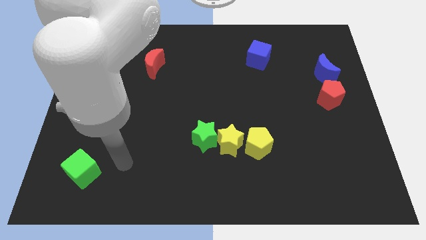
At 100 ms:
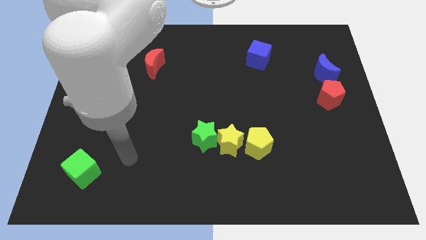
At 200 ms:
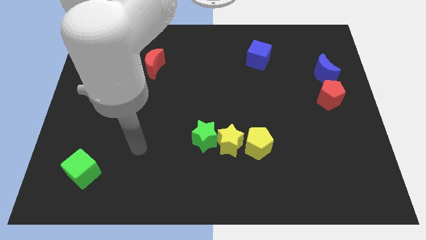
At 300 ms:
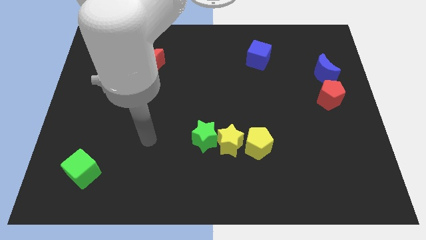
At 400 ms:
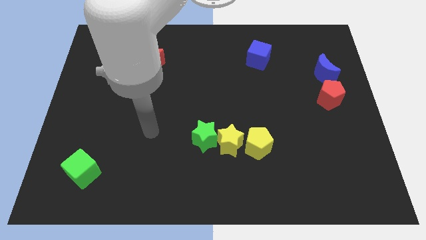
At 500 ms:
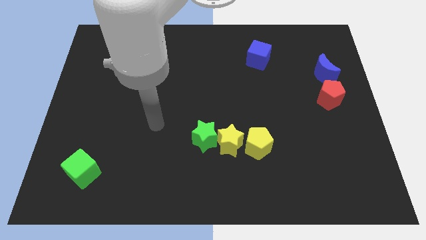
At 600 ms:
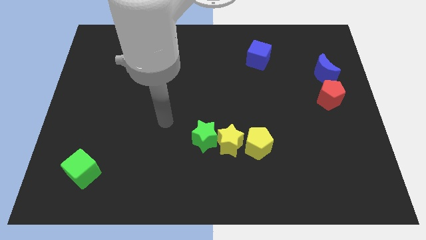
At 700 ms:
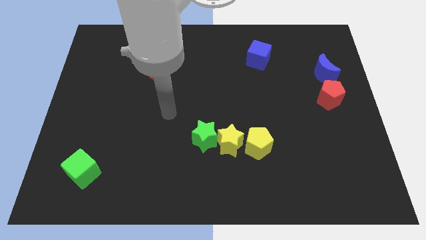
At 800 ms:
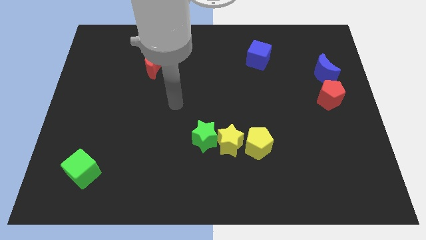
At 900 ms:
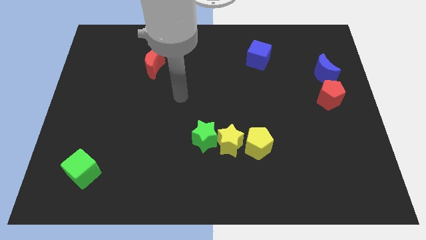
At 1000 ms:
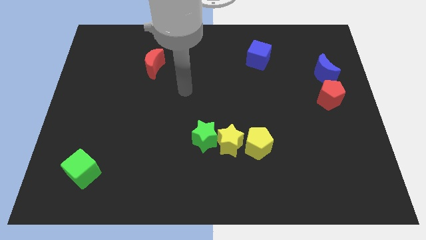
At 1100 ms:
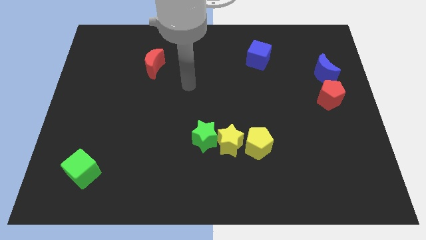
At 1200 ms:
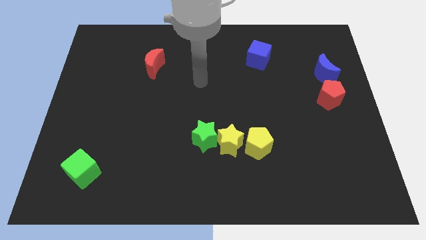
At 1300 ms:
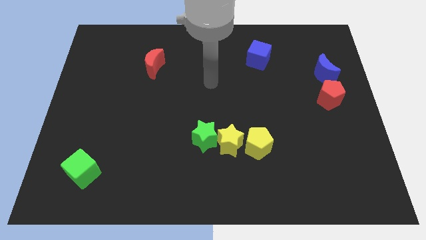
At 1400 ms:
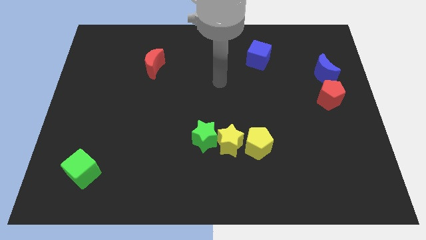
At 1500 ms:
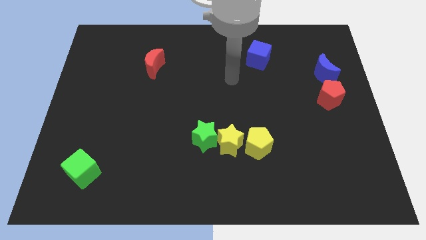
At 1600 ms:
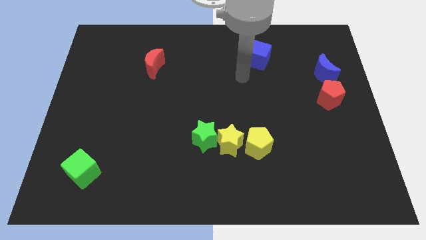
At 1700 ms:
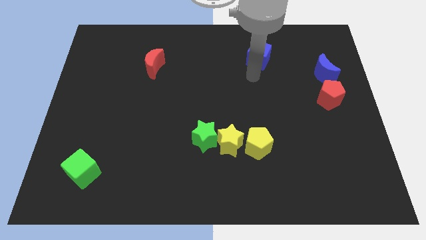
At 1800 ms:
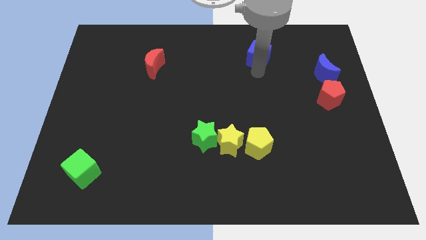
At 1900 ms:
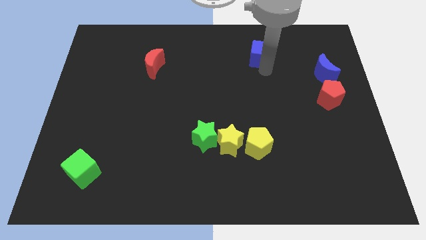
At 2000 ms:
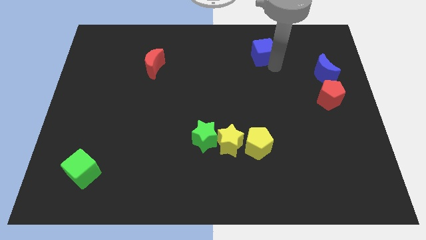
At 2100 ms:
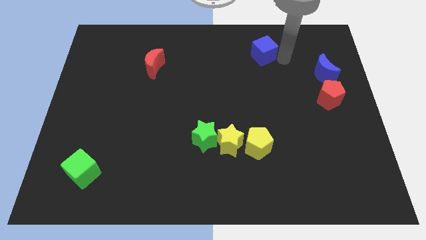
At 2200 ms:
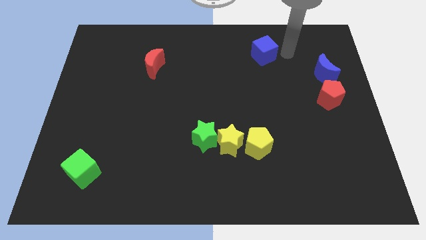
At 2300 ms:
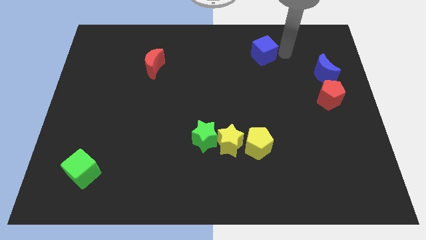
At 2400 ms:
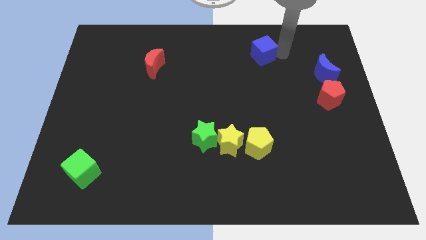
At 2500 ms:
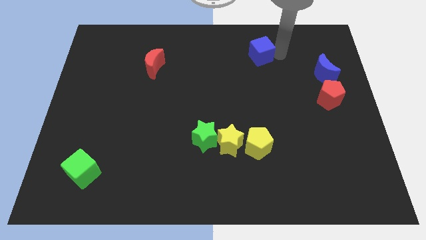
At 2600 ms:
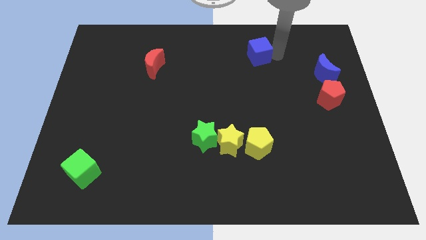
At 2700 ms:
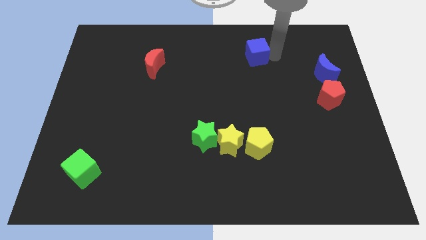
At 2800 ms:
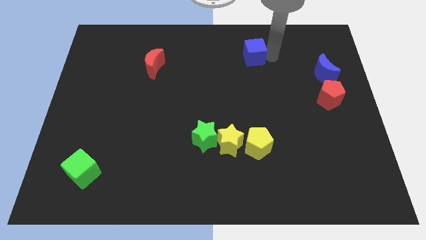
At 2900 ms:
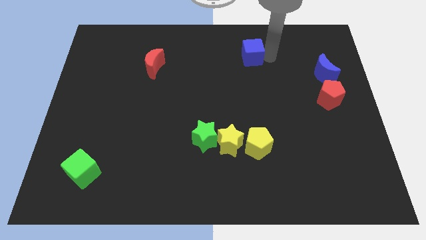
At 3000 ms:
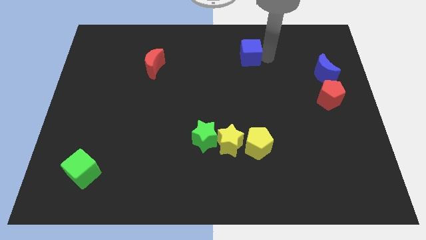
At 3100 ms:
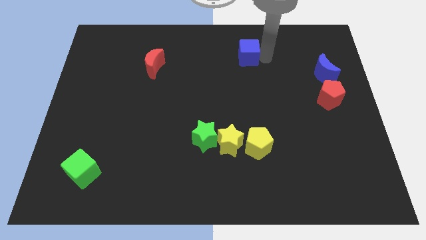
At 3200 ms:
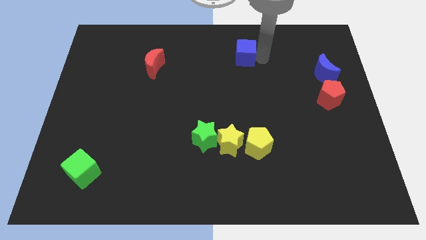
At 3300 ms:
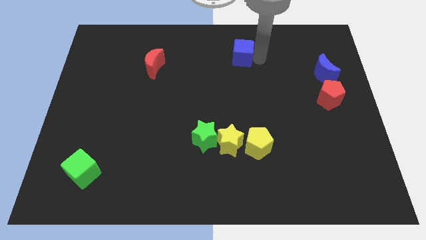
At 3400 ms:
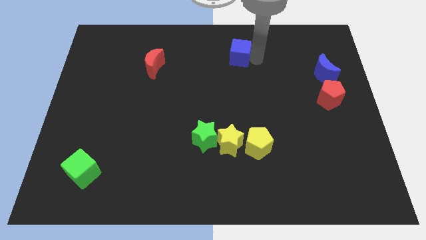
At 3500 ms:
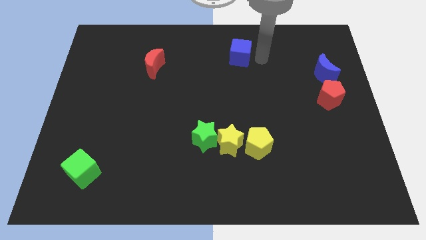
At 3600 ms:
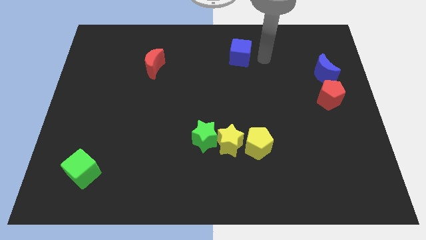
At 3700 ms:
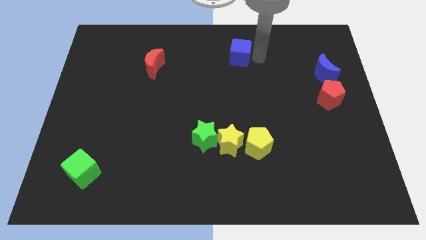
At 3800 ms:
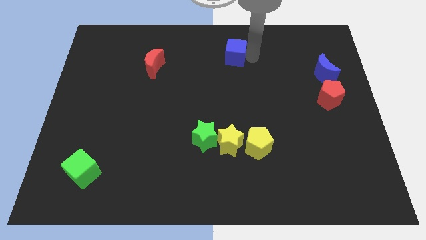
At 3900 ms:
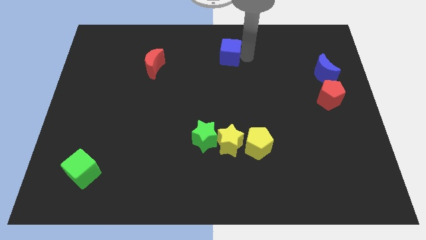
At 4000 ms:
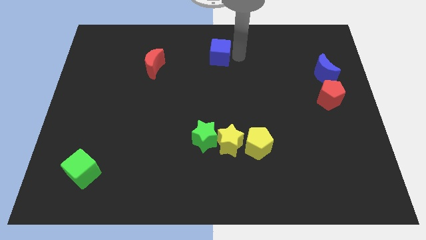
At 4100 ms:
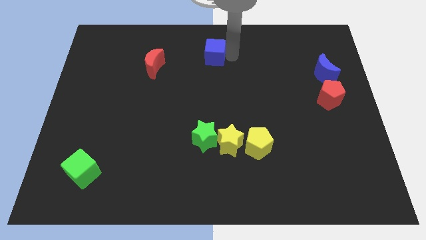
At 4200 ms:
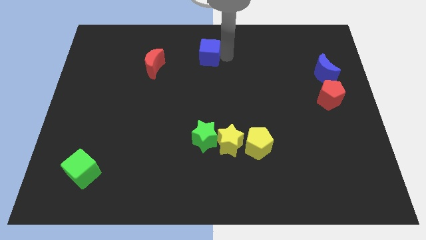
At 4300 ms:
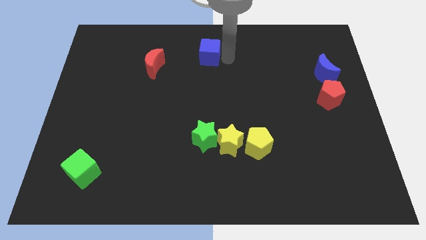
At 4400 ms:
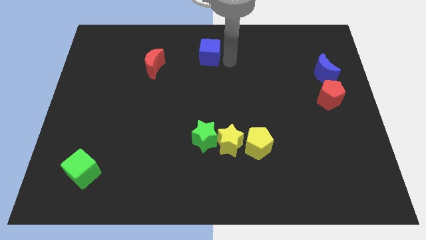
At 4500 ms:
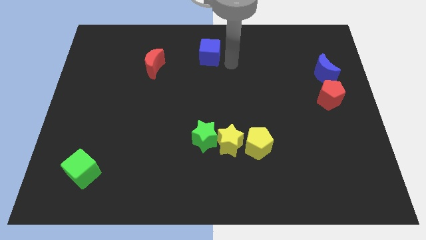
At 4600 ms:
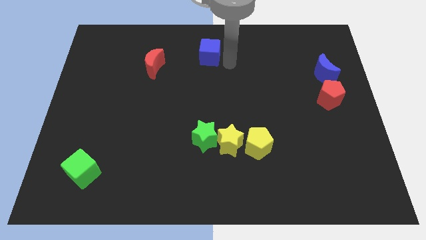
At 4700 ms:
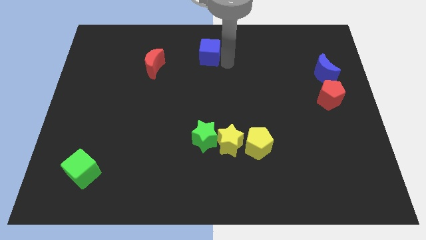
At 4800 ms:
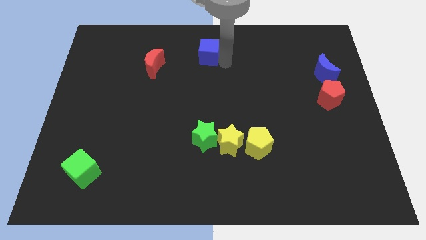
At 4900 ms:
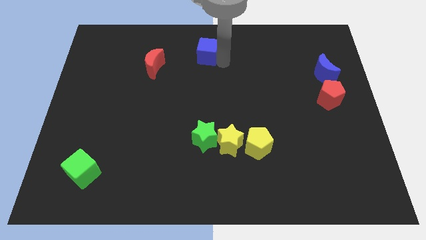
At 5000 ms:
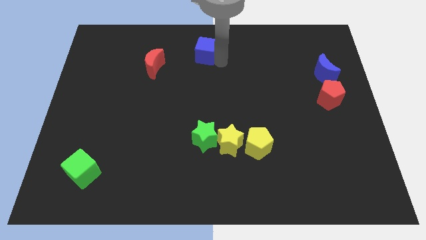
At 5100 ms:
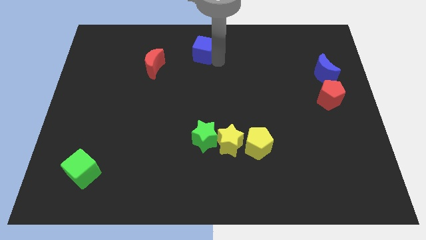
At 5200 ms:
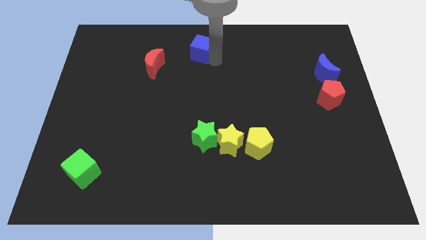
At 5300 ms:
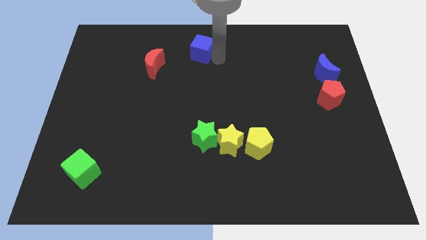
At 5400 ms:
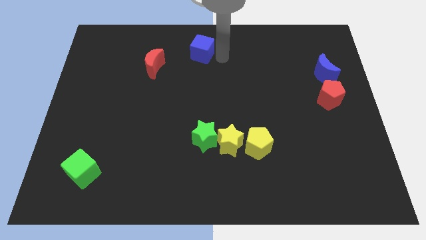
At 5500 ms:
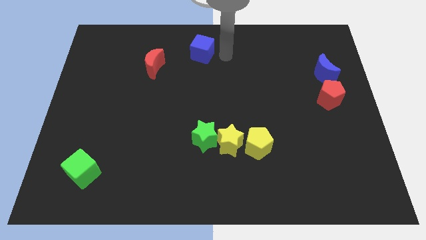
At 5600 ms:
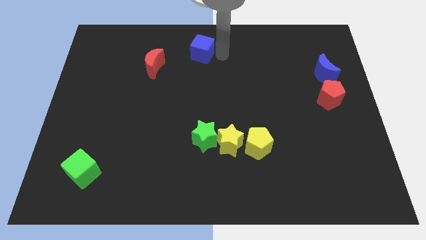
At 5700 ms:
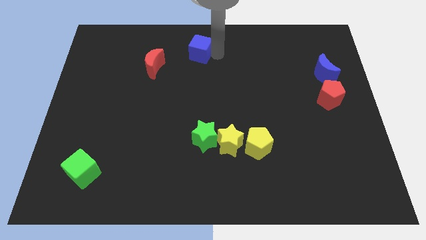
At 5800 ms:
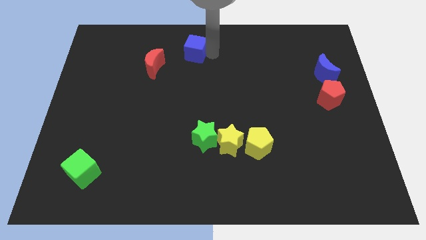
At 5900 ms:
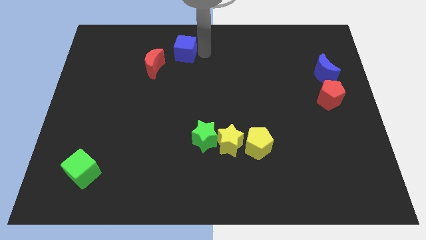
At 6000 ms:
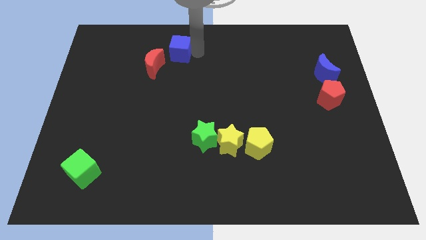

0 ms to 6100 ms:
slide the blue cube left

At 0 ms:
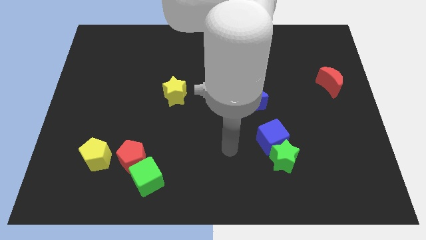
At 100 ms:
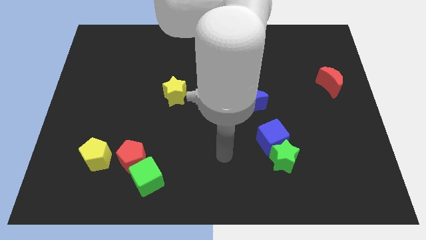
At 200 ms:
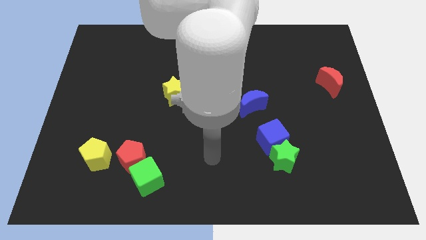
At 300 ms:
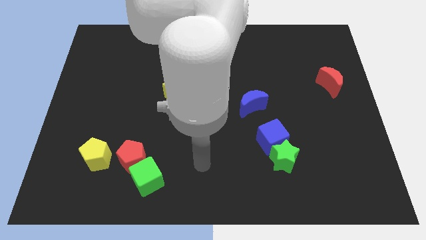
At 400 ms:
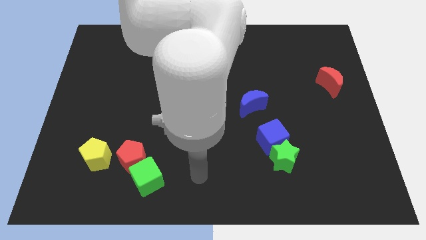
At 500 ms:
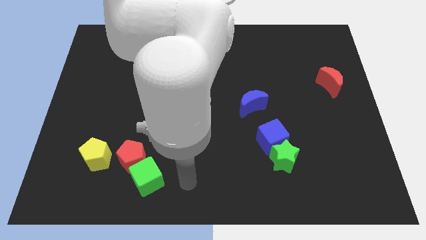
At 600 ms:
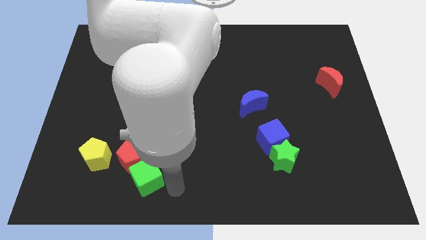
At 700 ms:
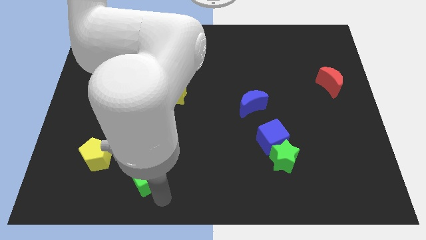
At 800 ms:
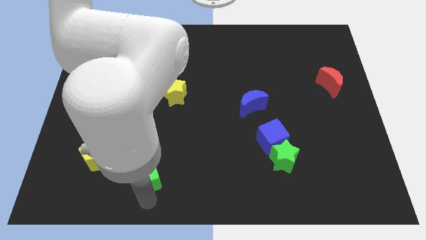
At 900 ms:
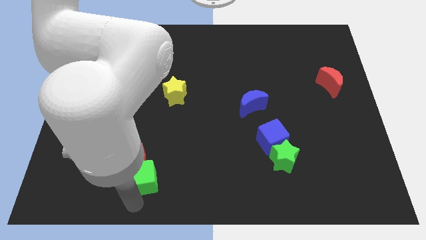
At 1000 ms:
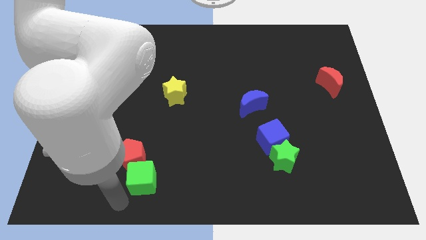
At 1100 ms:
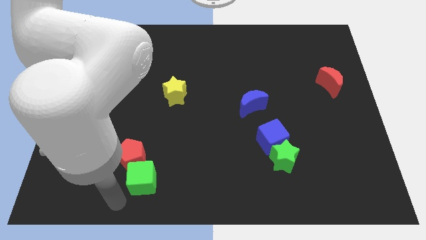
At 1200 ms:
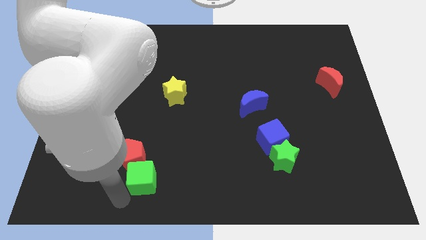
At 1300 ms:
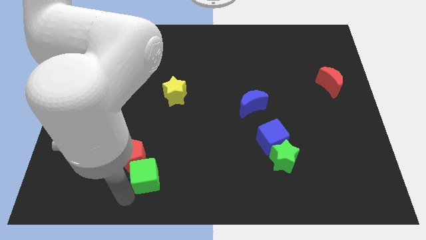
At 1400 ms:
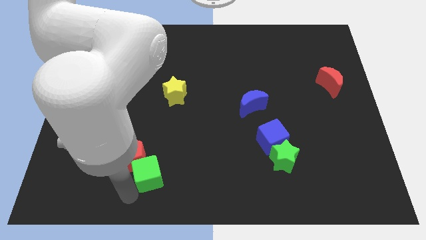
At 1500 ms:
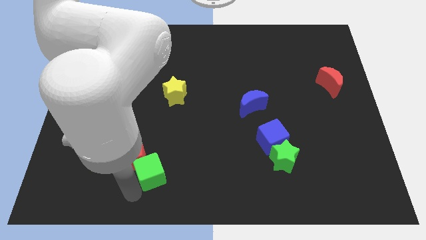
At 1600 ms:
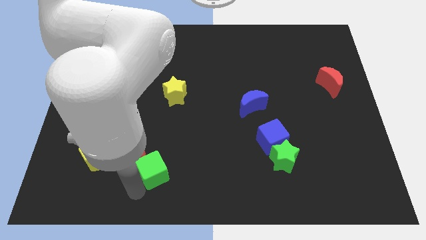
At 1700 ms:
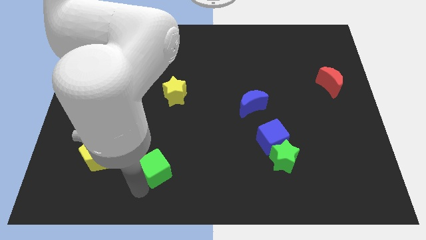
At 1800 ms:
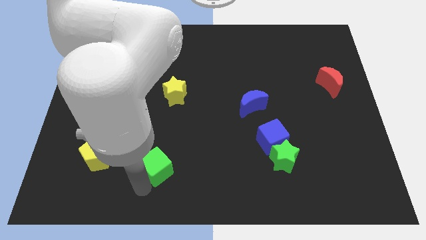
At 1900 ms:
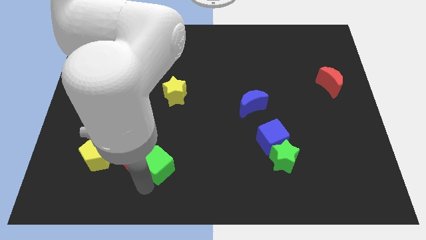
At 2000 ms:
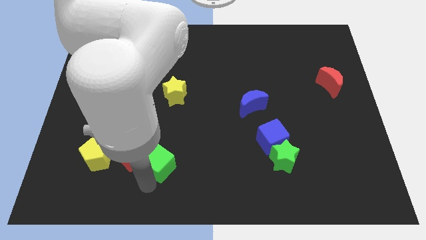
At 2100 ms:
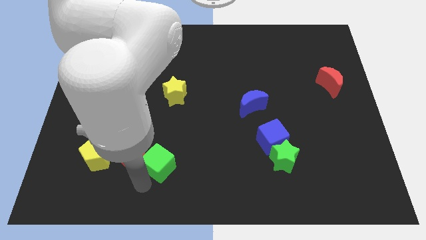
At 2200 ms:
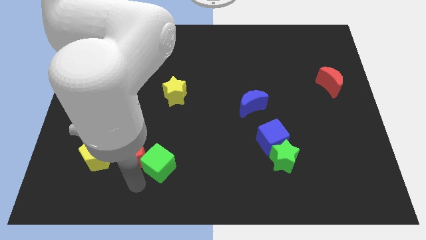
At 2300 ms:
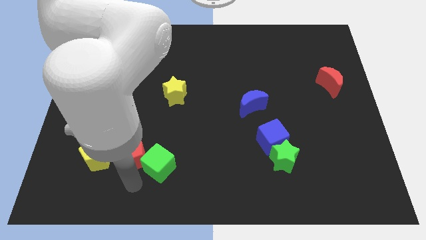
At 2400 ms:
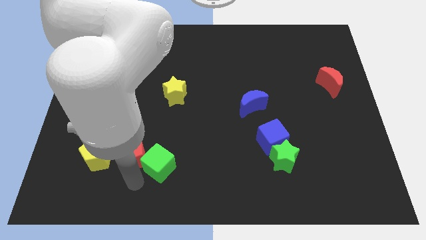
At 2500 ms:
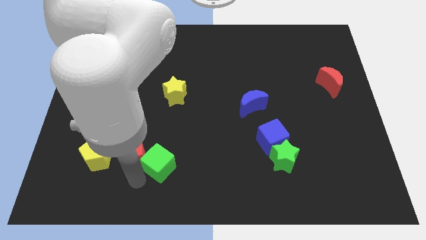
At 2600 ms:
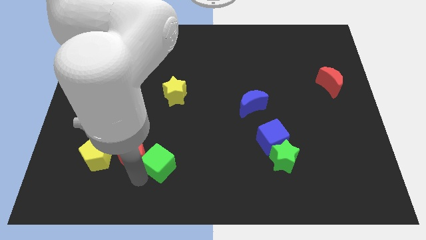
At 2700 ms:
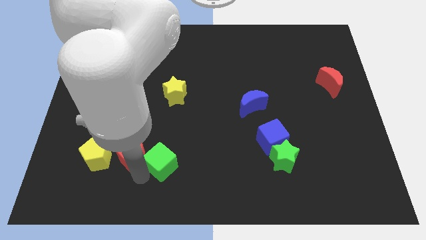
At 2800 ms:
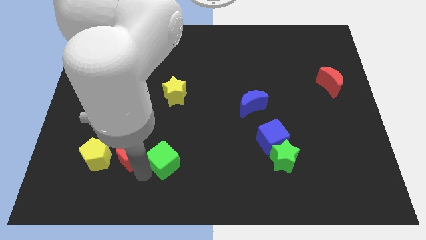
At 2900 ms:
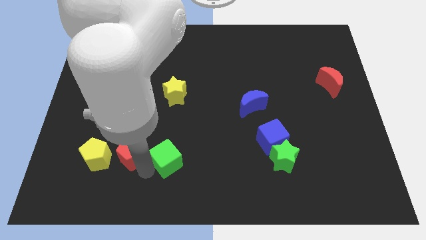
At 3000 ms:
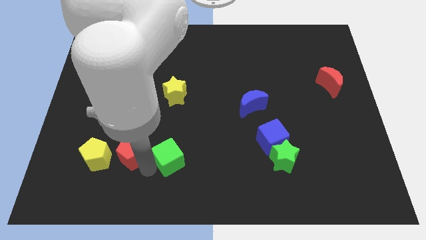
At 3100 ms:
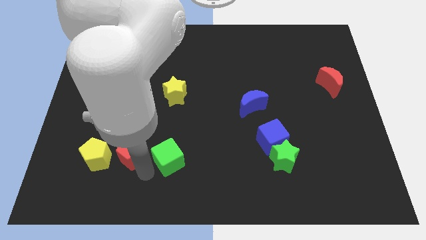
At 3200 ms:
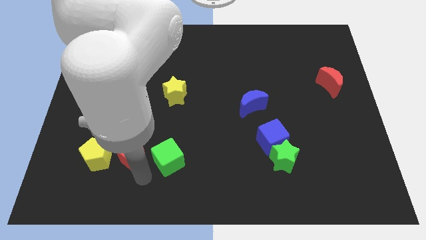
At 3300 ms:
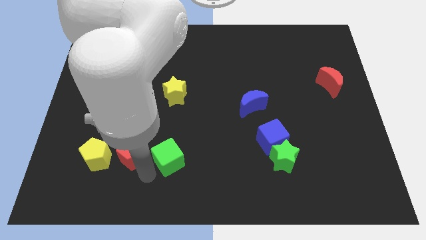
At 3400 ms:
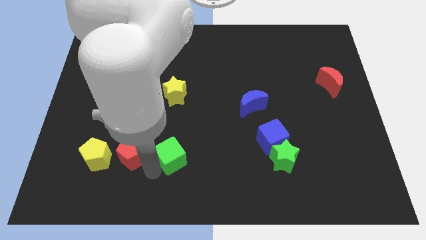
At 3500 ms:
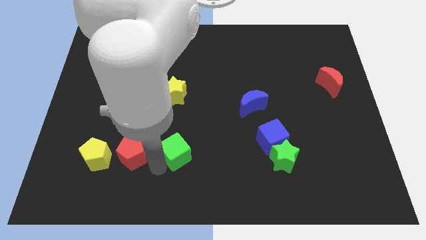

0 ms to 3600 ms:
slightly move the green cube up and to the right
